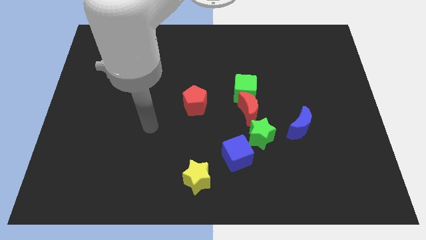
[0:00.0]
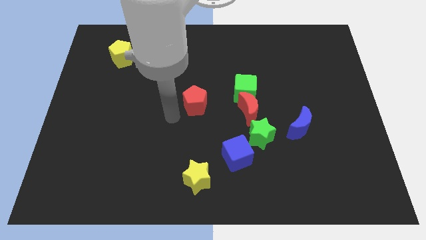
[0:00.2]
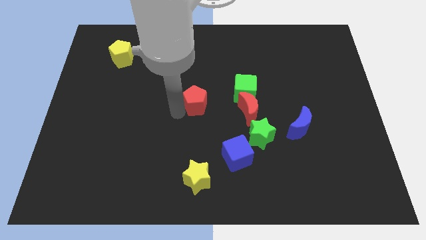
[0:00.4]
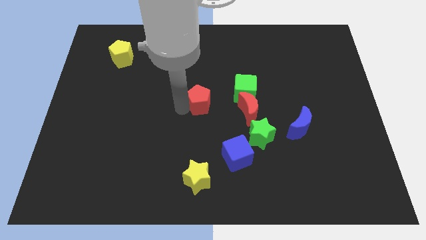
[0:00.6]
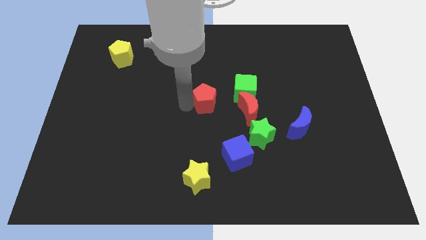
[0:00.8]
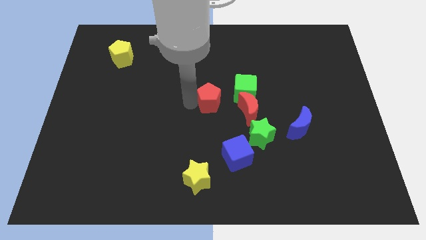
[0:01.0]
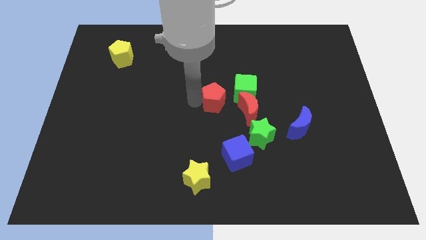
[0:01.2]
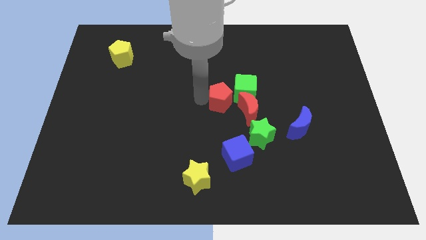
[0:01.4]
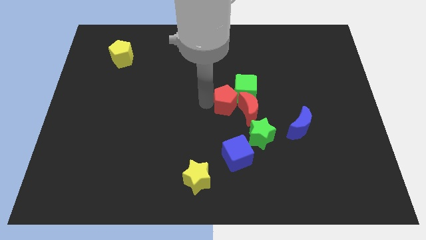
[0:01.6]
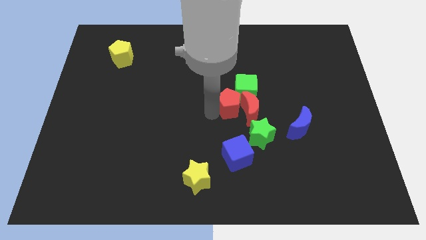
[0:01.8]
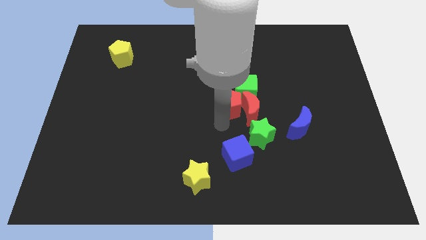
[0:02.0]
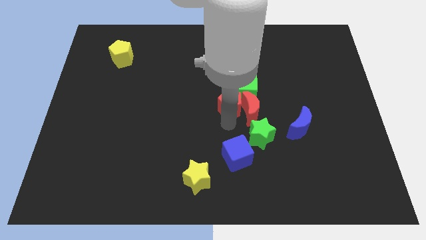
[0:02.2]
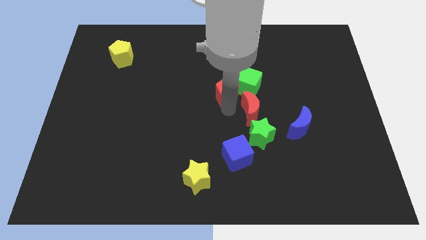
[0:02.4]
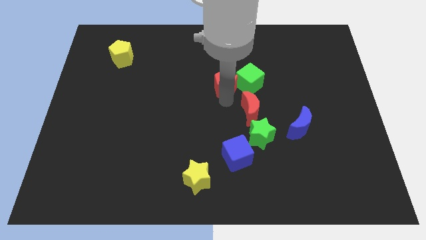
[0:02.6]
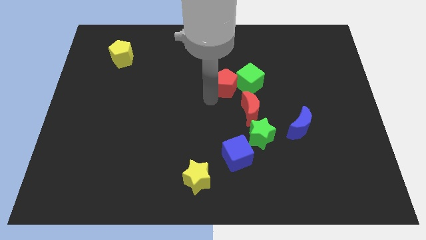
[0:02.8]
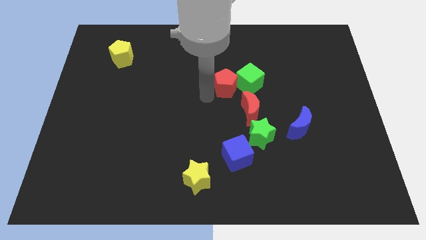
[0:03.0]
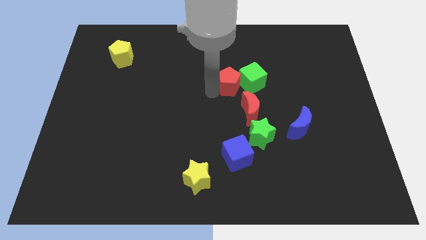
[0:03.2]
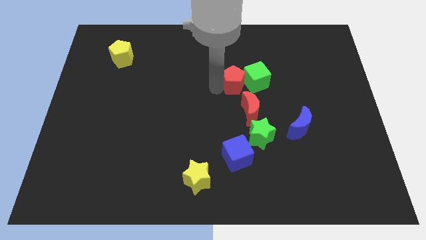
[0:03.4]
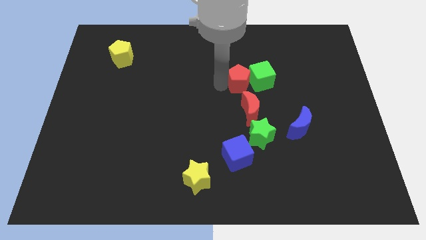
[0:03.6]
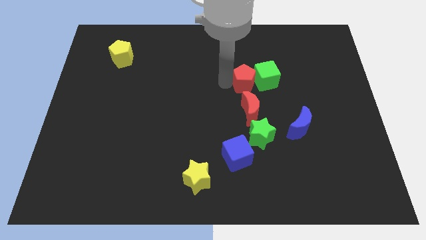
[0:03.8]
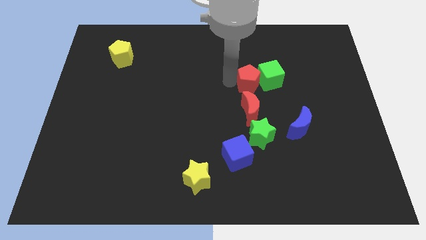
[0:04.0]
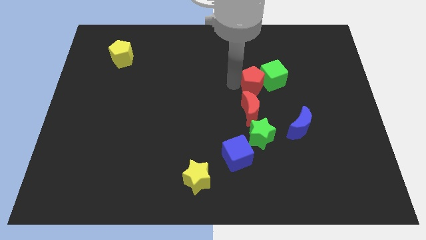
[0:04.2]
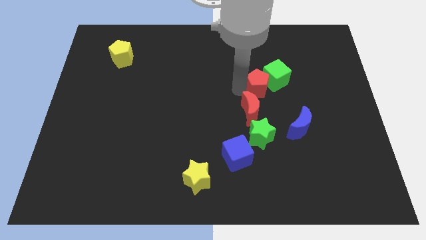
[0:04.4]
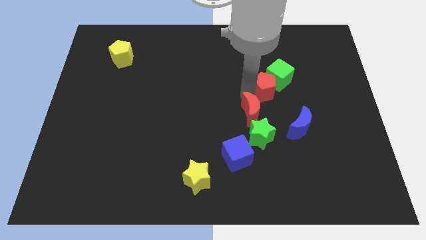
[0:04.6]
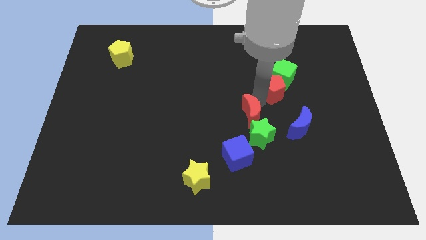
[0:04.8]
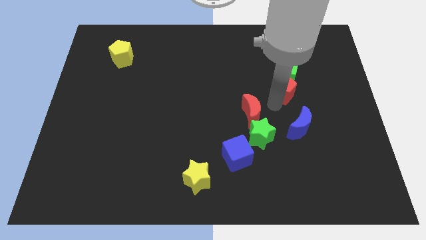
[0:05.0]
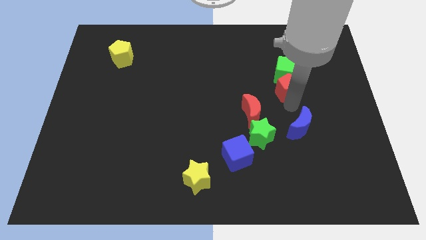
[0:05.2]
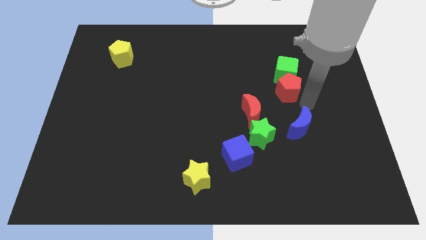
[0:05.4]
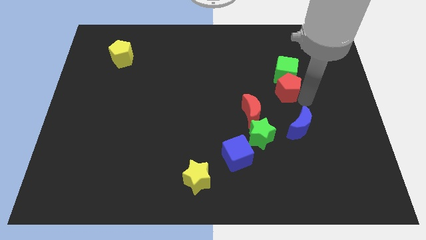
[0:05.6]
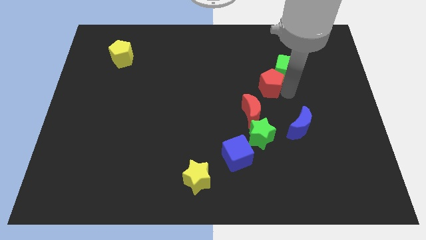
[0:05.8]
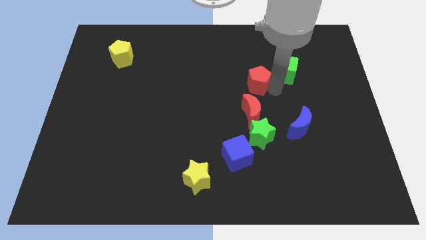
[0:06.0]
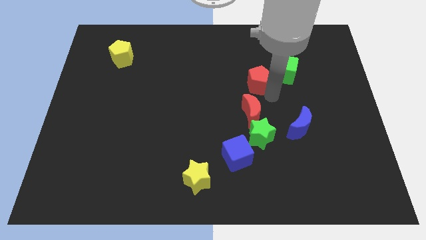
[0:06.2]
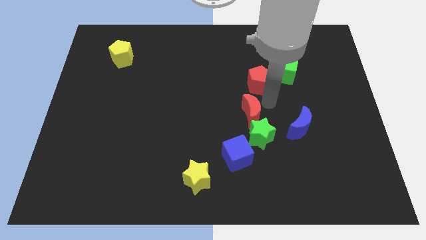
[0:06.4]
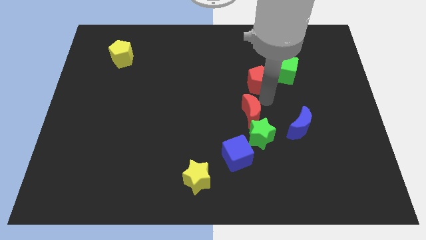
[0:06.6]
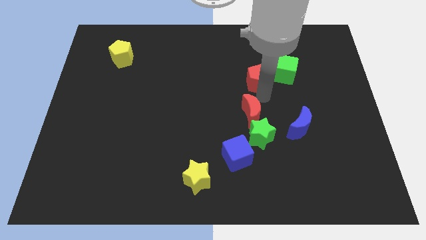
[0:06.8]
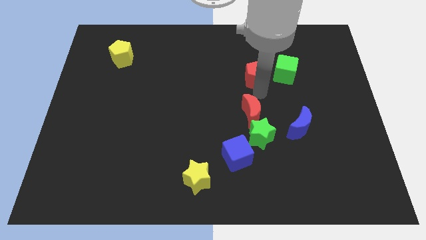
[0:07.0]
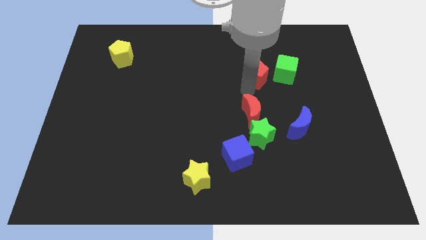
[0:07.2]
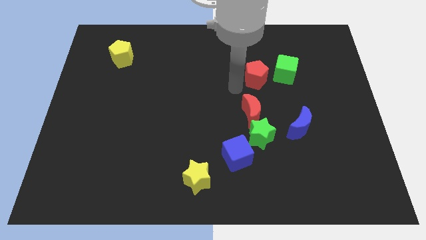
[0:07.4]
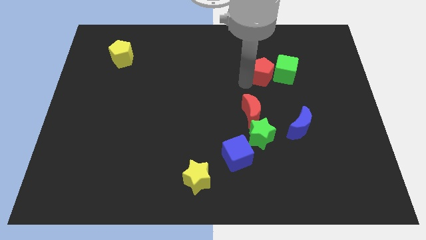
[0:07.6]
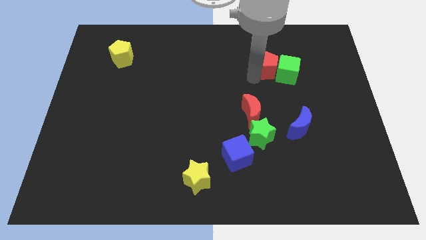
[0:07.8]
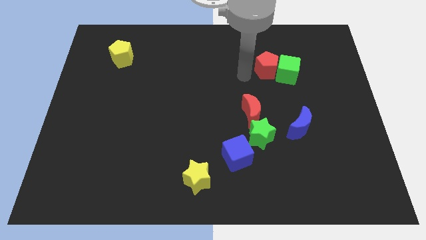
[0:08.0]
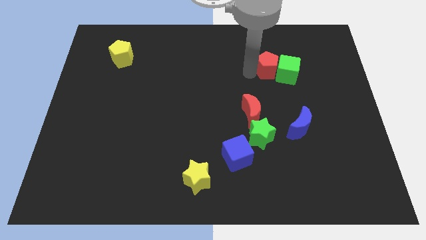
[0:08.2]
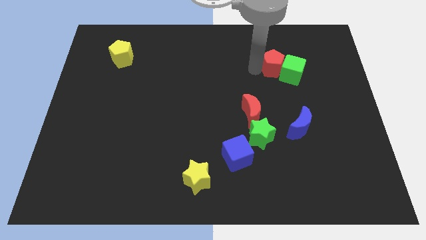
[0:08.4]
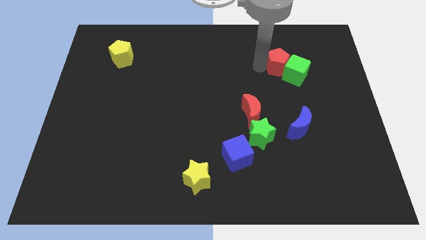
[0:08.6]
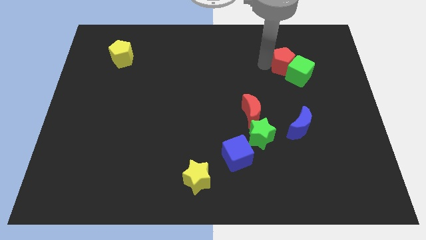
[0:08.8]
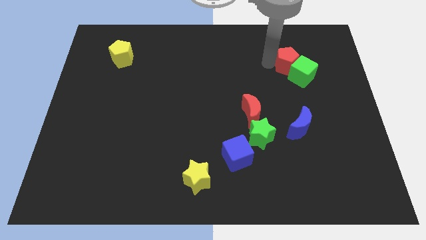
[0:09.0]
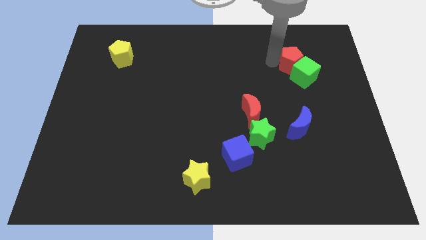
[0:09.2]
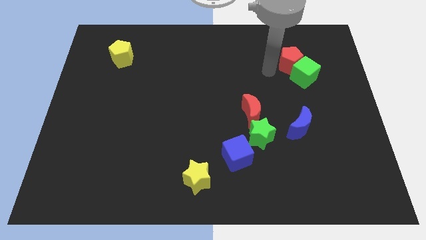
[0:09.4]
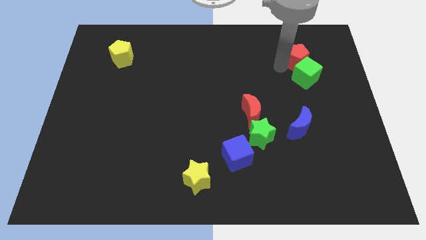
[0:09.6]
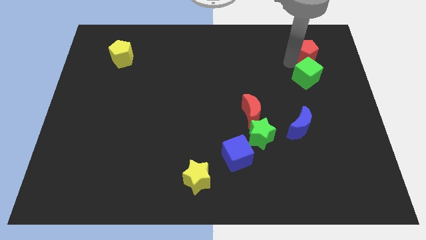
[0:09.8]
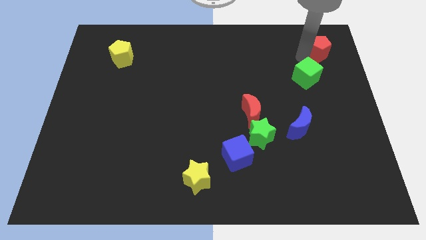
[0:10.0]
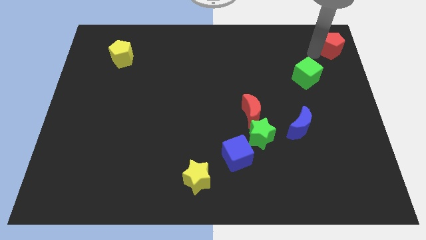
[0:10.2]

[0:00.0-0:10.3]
push the red pentagon to the upper right corner

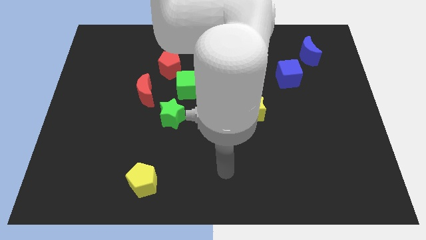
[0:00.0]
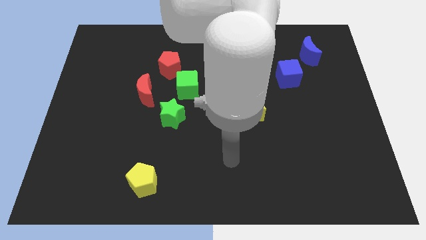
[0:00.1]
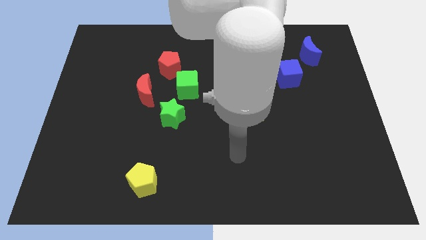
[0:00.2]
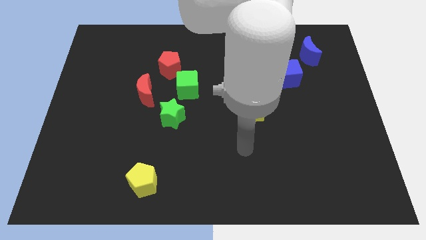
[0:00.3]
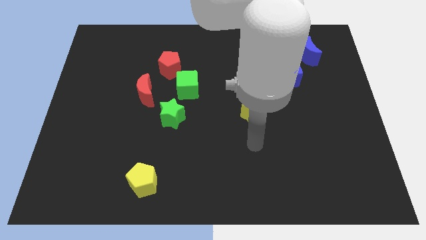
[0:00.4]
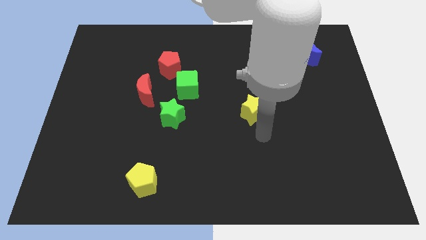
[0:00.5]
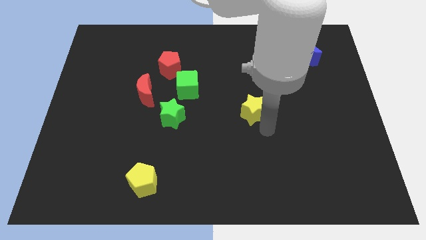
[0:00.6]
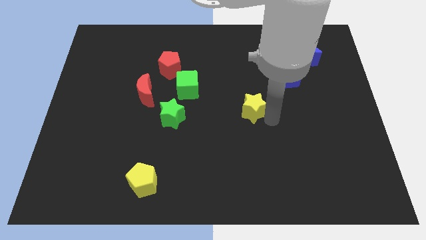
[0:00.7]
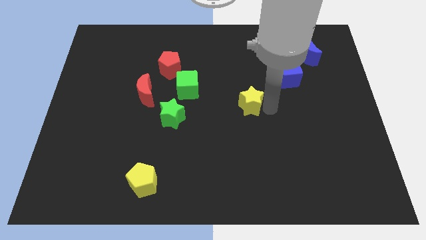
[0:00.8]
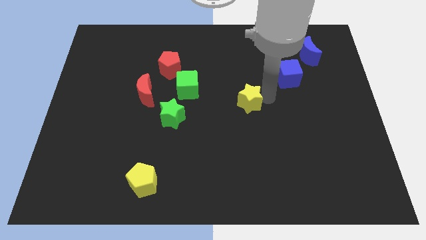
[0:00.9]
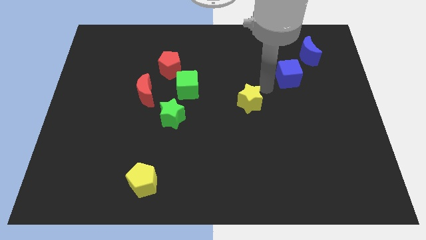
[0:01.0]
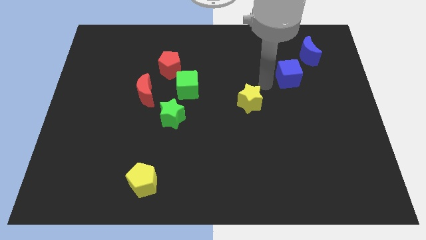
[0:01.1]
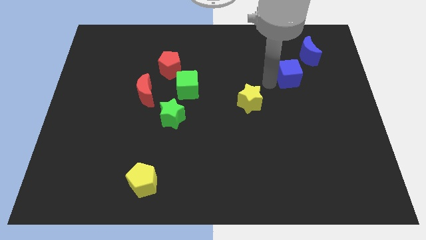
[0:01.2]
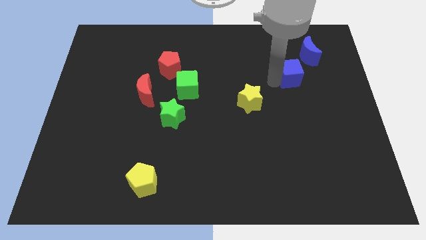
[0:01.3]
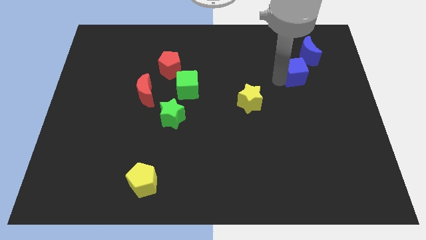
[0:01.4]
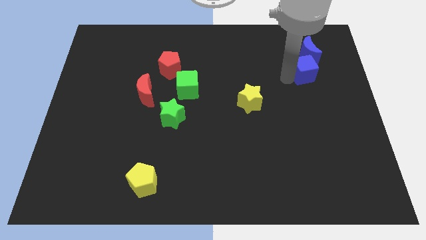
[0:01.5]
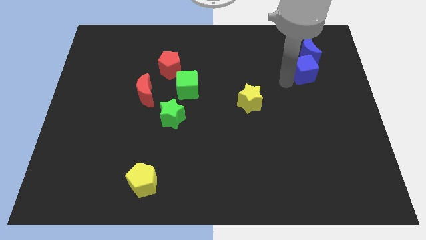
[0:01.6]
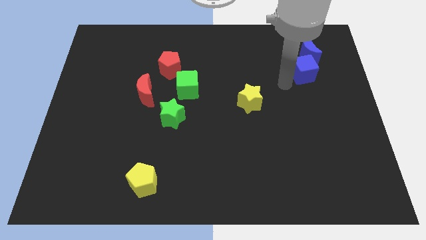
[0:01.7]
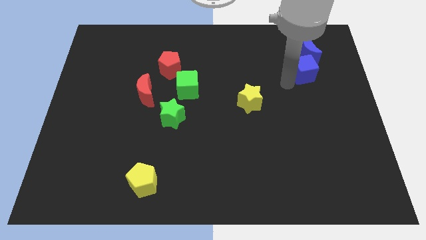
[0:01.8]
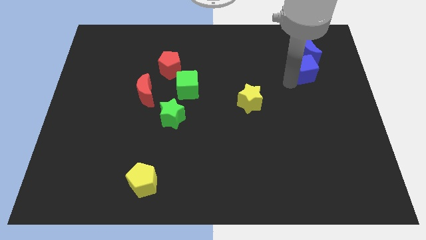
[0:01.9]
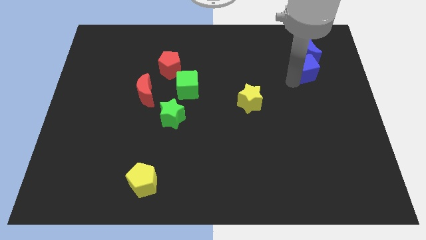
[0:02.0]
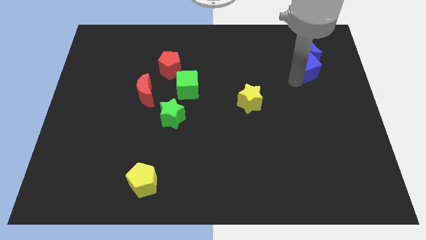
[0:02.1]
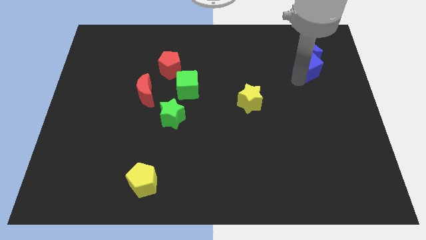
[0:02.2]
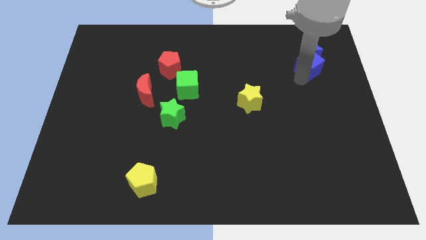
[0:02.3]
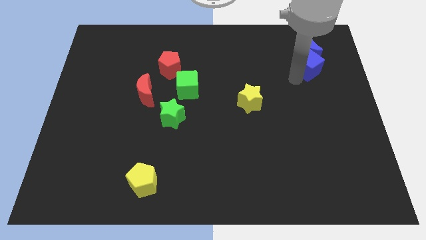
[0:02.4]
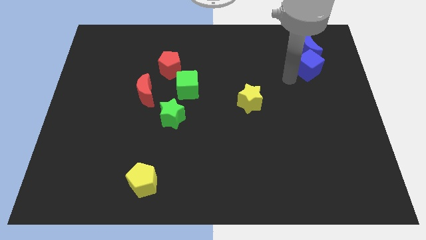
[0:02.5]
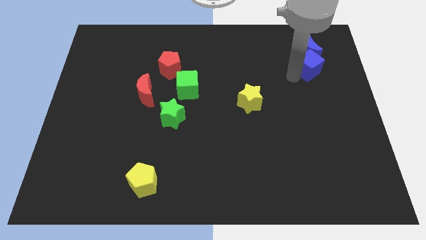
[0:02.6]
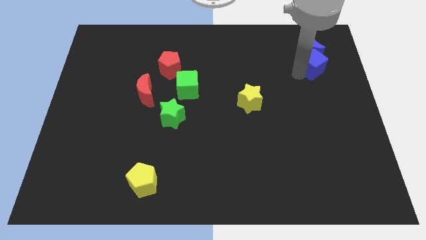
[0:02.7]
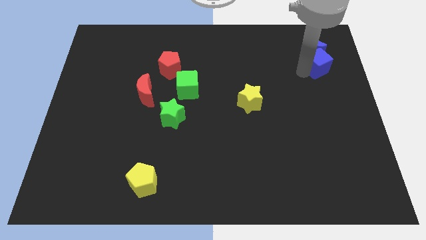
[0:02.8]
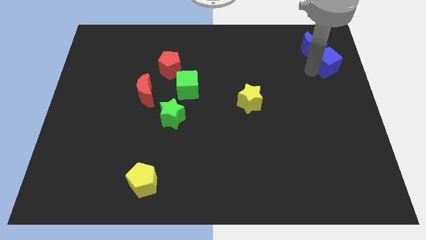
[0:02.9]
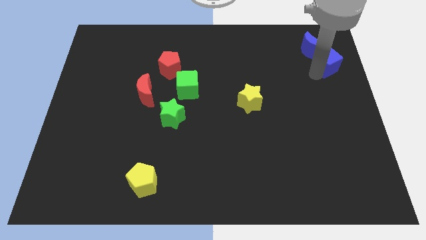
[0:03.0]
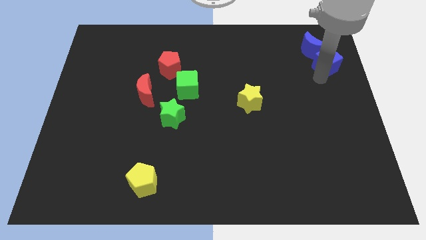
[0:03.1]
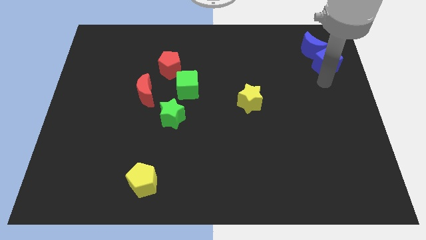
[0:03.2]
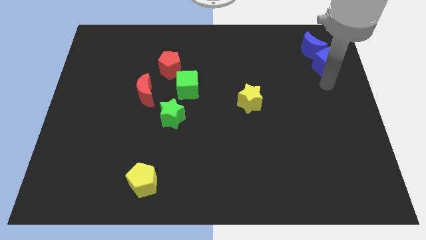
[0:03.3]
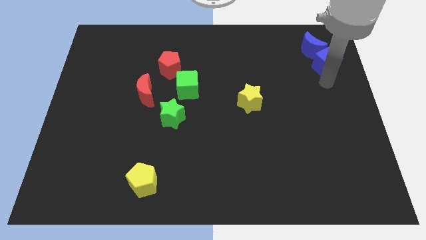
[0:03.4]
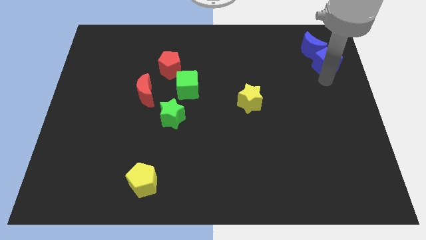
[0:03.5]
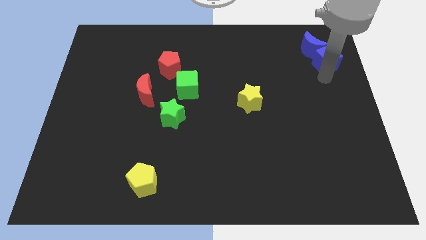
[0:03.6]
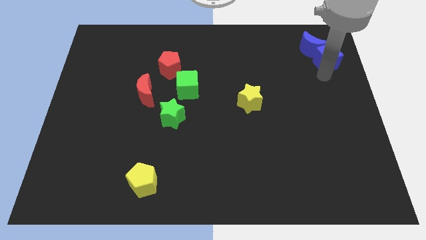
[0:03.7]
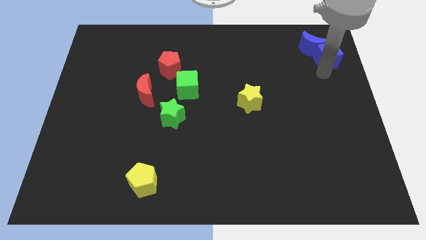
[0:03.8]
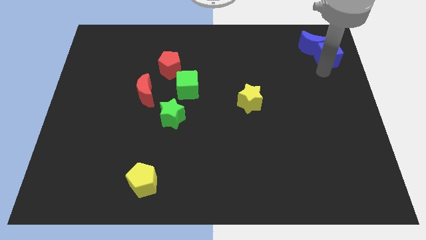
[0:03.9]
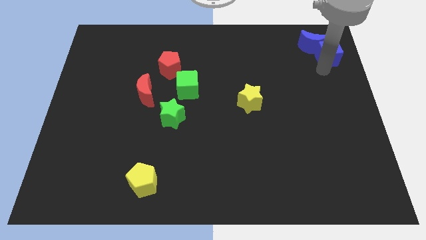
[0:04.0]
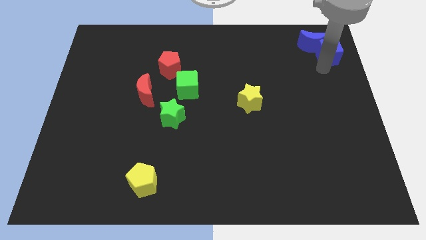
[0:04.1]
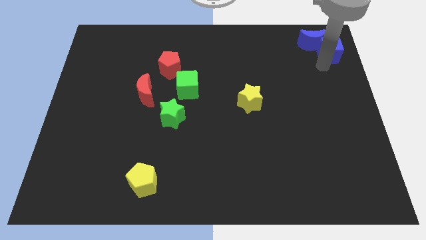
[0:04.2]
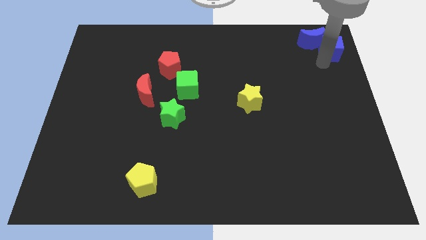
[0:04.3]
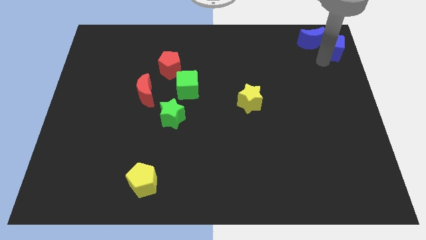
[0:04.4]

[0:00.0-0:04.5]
slide the blue cube to the top right corner
